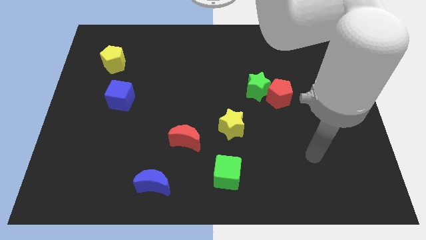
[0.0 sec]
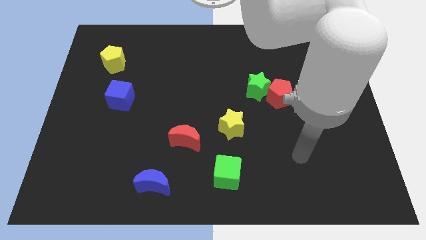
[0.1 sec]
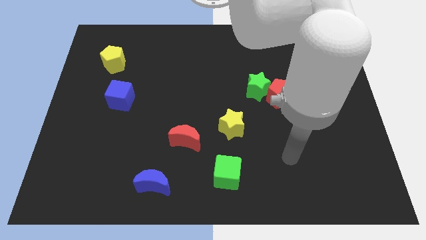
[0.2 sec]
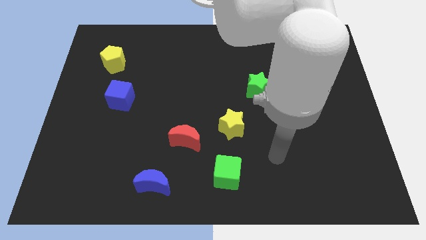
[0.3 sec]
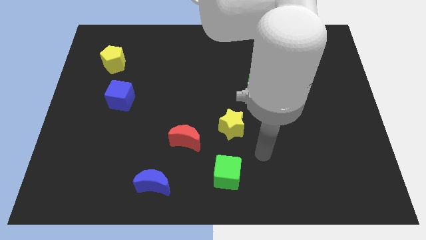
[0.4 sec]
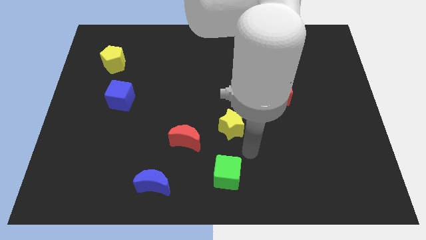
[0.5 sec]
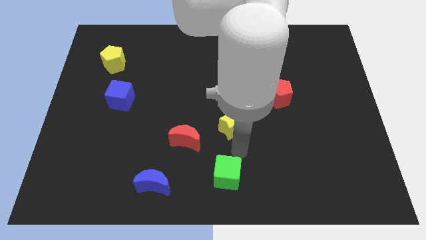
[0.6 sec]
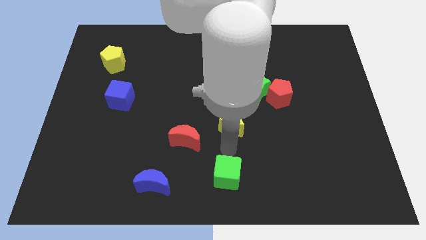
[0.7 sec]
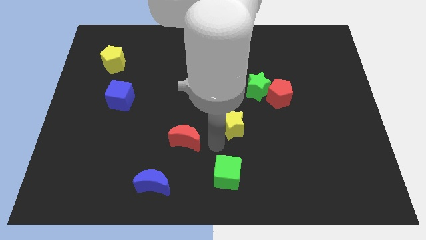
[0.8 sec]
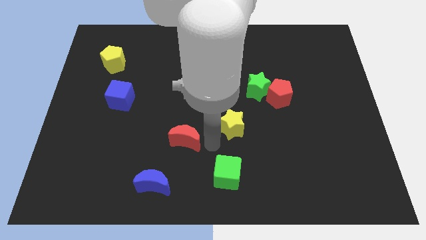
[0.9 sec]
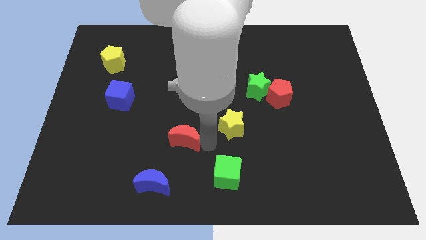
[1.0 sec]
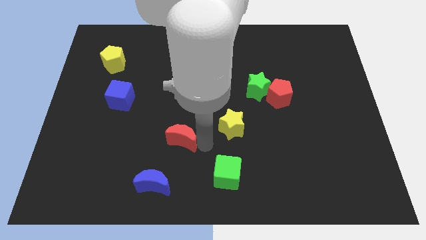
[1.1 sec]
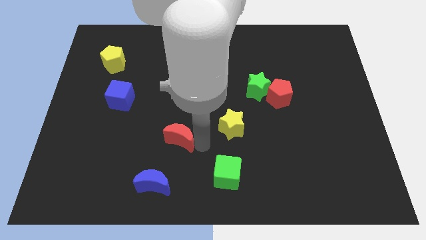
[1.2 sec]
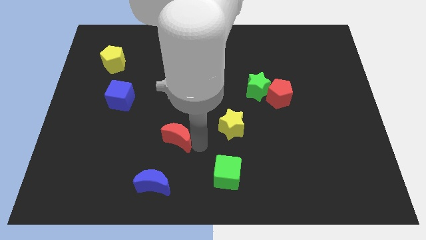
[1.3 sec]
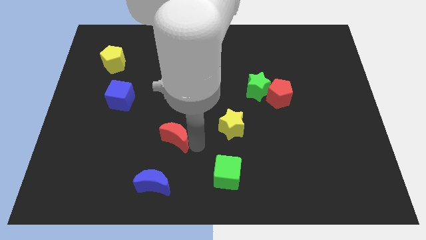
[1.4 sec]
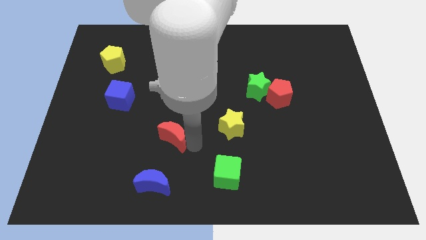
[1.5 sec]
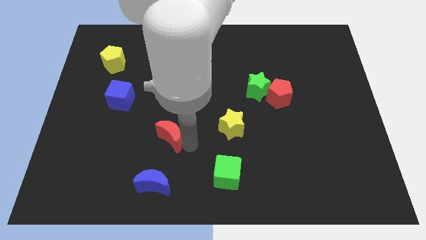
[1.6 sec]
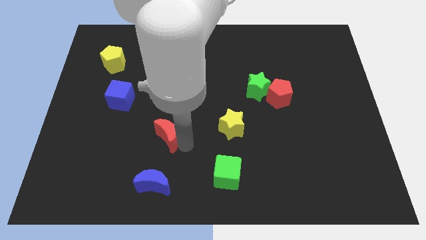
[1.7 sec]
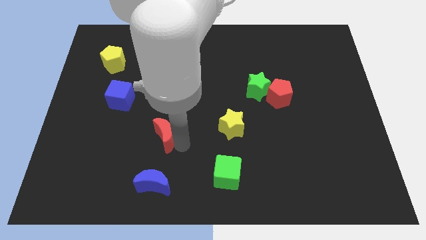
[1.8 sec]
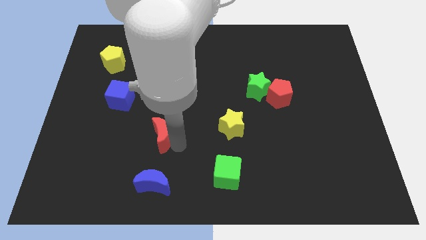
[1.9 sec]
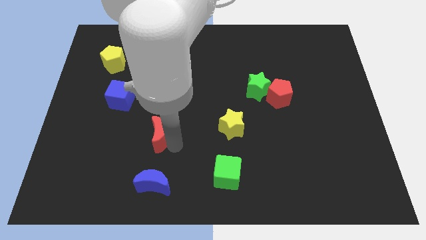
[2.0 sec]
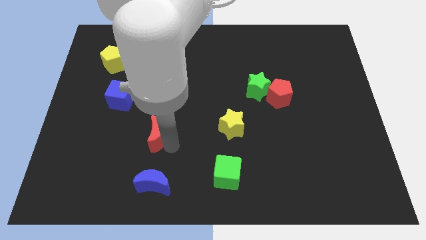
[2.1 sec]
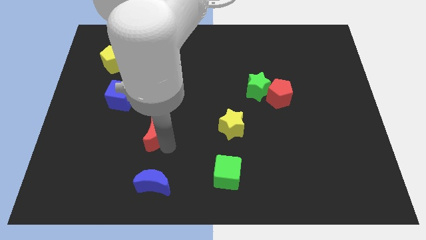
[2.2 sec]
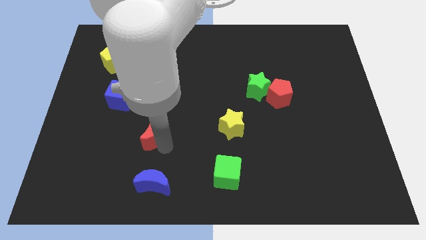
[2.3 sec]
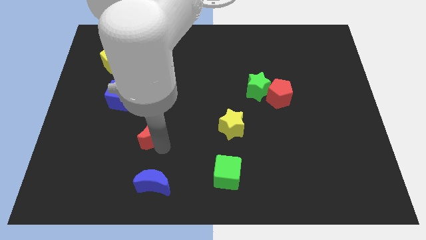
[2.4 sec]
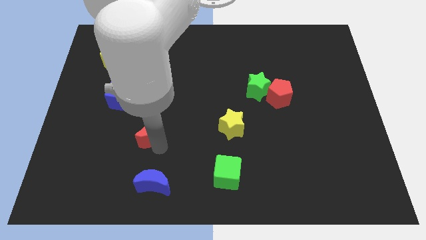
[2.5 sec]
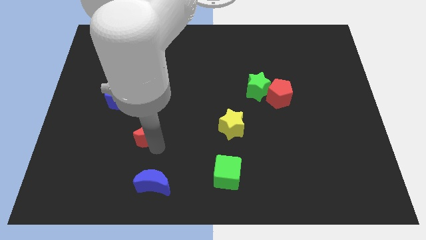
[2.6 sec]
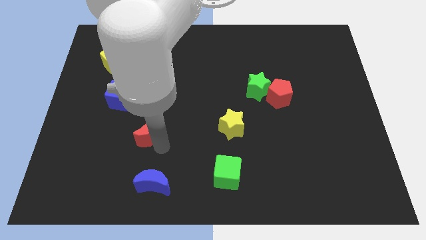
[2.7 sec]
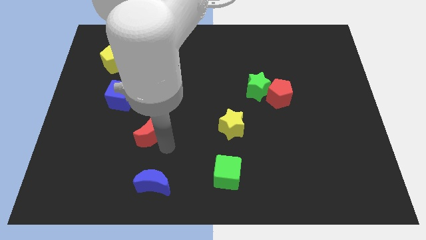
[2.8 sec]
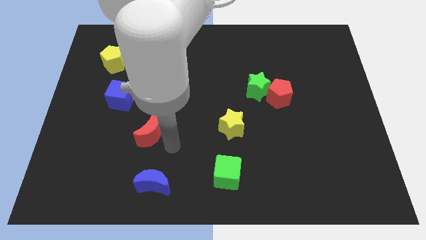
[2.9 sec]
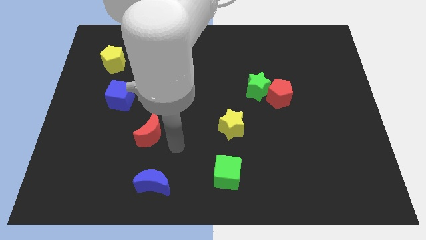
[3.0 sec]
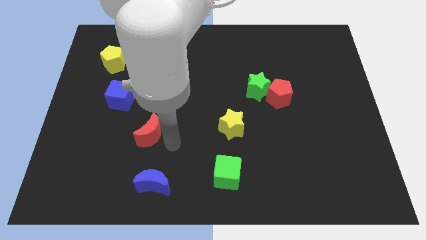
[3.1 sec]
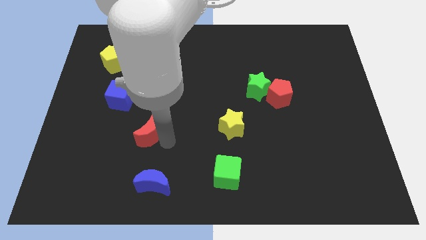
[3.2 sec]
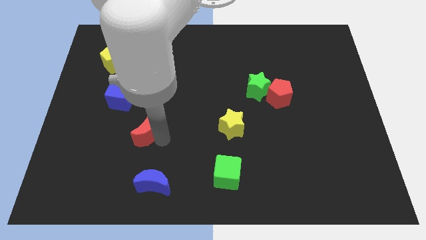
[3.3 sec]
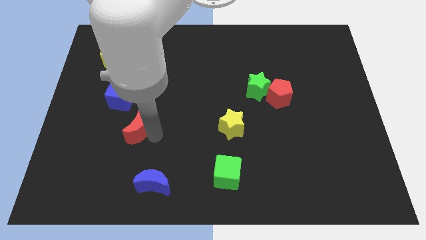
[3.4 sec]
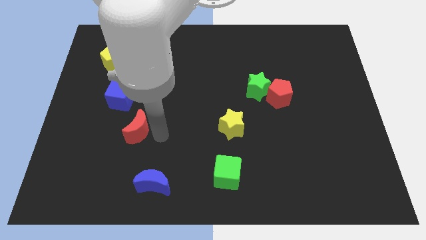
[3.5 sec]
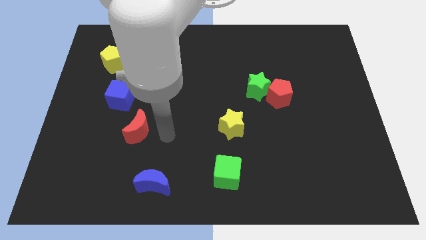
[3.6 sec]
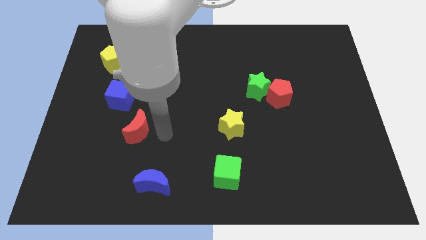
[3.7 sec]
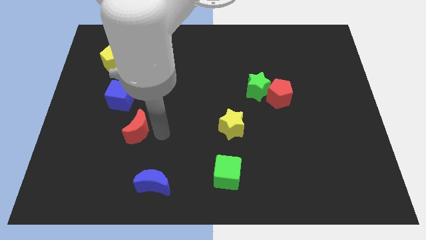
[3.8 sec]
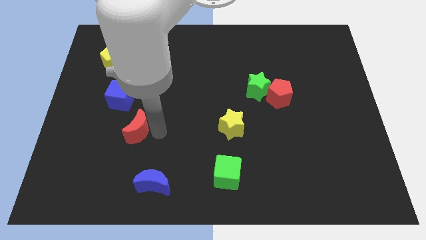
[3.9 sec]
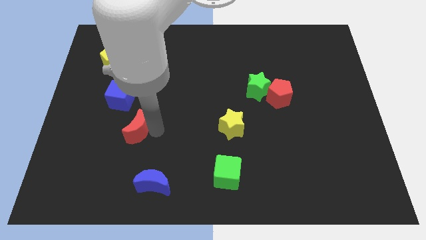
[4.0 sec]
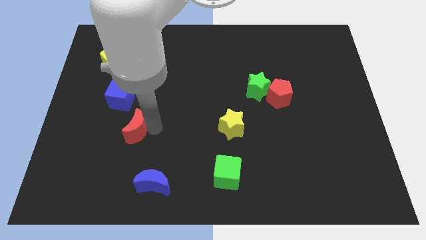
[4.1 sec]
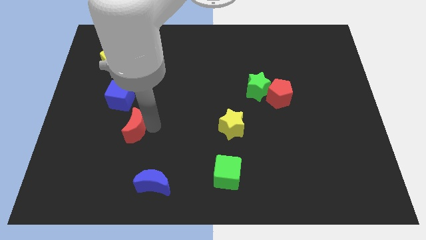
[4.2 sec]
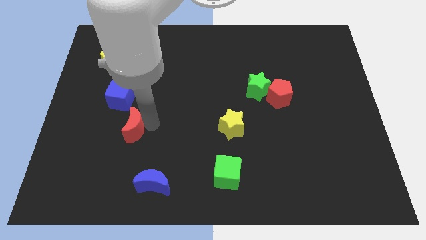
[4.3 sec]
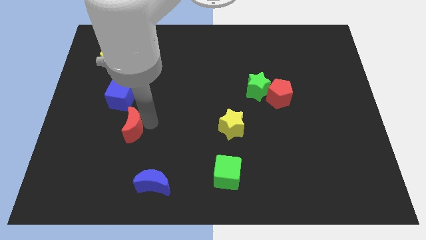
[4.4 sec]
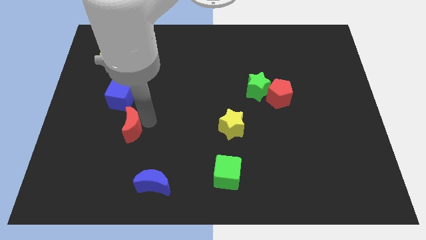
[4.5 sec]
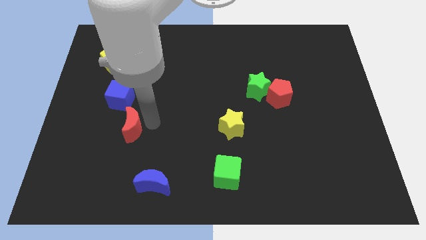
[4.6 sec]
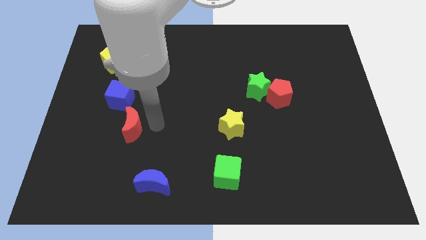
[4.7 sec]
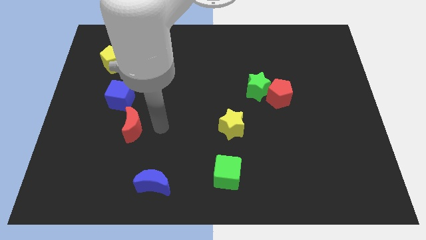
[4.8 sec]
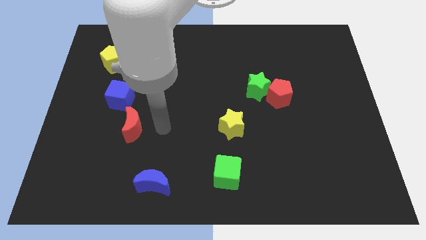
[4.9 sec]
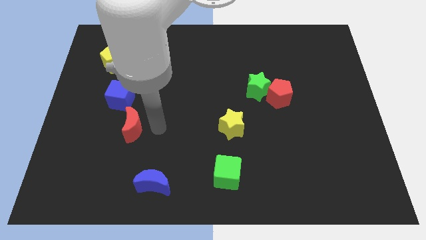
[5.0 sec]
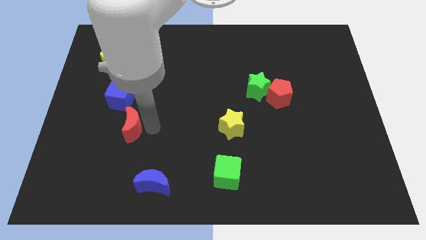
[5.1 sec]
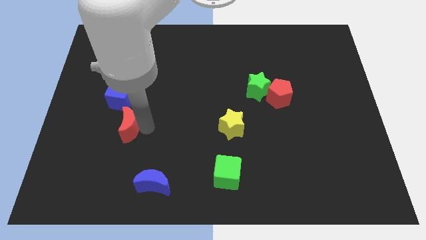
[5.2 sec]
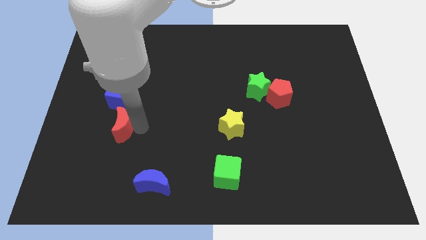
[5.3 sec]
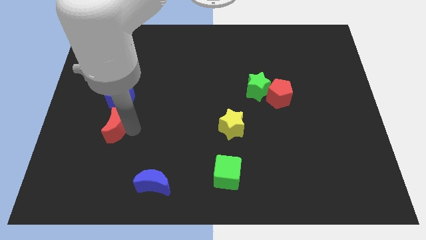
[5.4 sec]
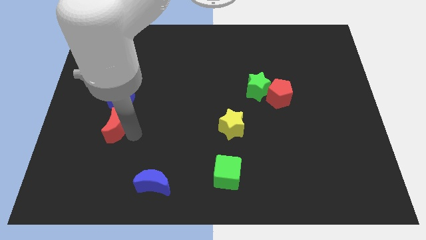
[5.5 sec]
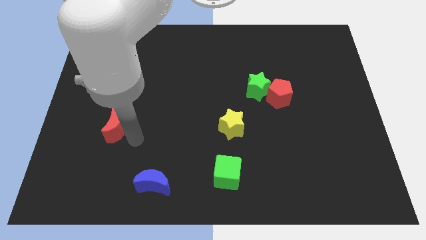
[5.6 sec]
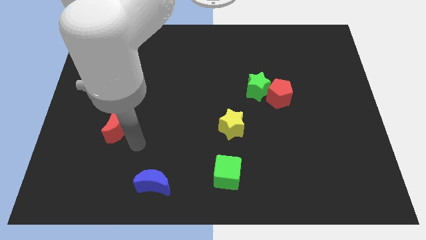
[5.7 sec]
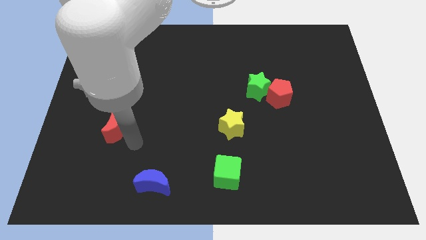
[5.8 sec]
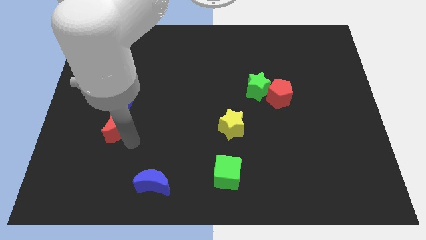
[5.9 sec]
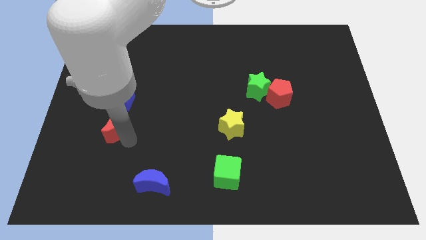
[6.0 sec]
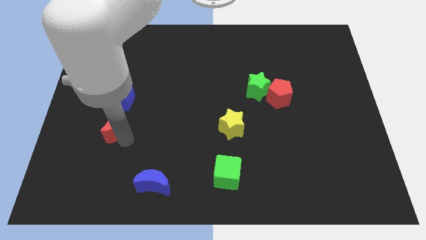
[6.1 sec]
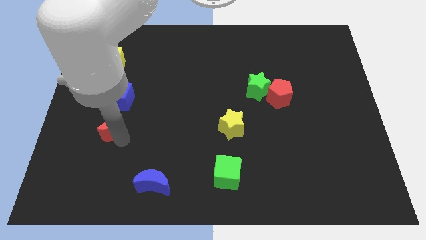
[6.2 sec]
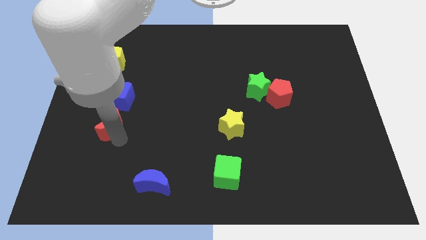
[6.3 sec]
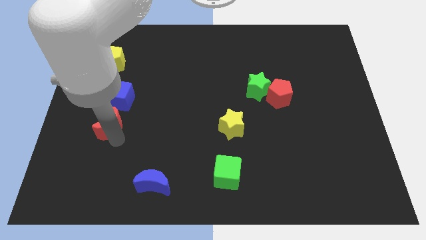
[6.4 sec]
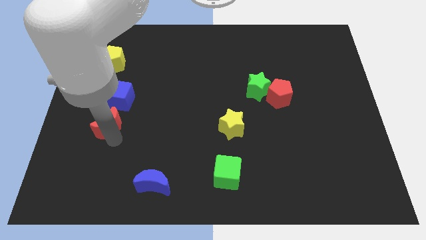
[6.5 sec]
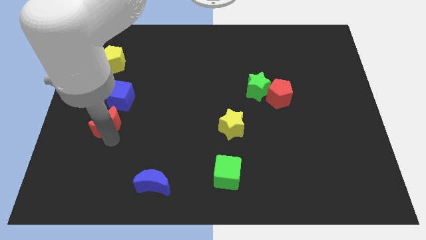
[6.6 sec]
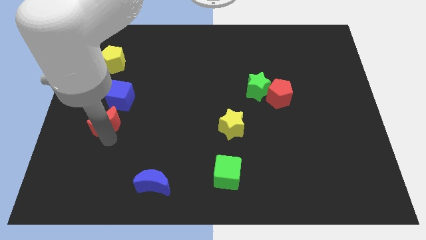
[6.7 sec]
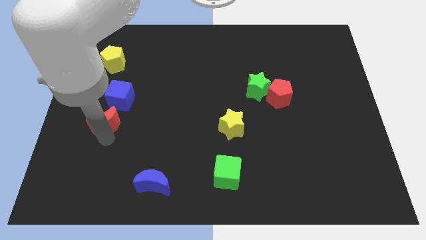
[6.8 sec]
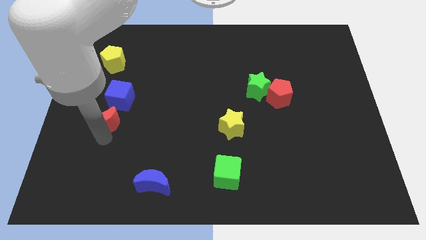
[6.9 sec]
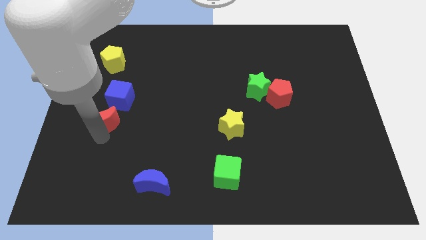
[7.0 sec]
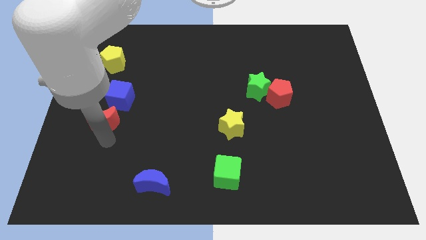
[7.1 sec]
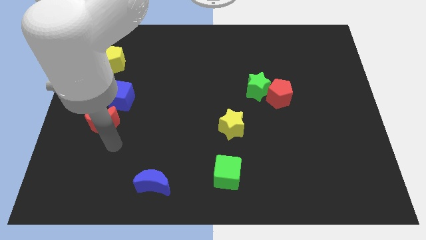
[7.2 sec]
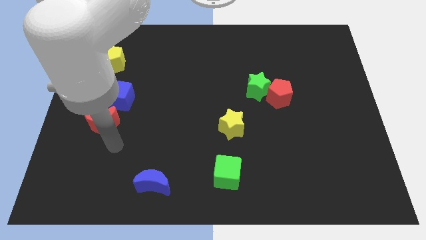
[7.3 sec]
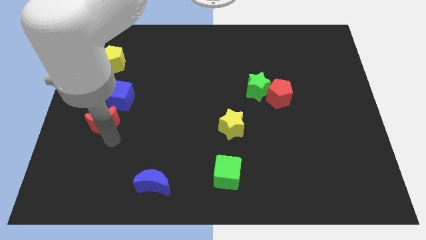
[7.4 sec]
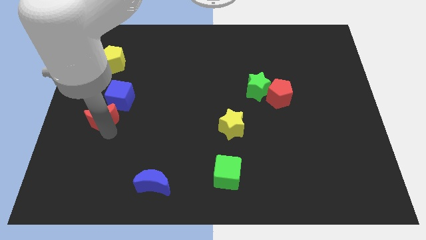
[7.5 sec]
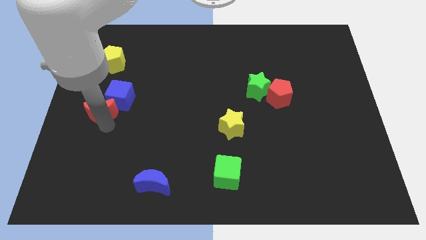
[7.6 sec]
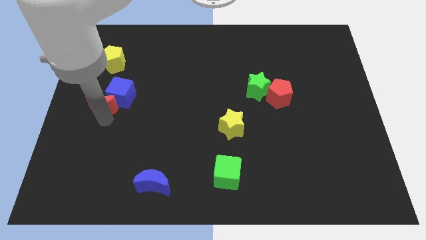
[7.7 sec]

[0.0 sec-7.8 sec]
slide the red moon to the bottom side of the yellow pentagon

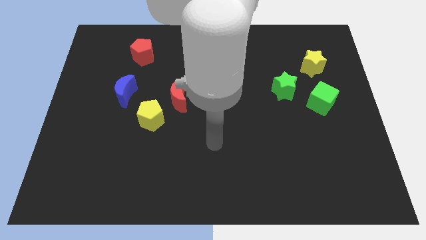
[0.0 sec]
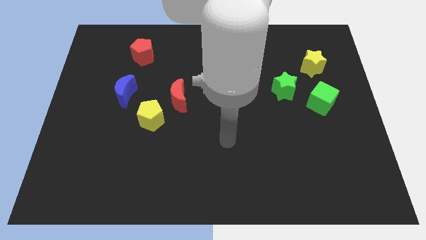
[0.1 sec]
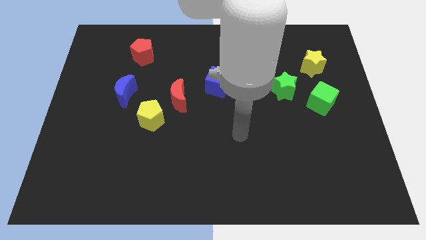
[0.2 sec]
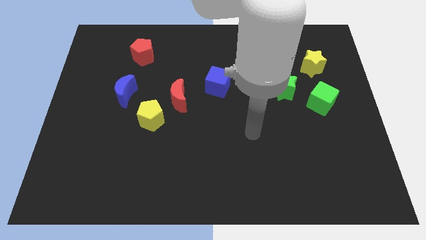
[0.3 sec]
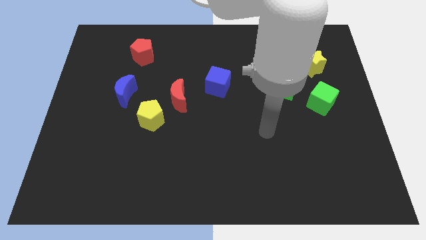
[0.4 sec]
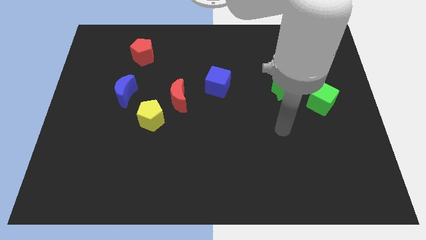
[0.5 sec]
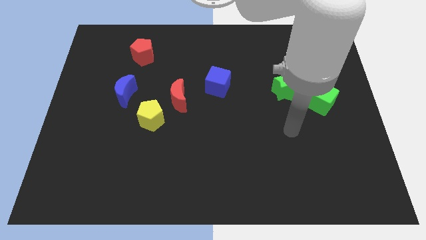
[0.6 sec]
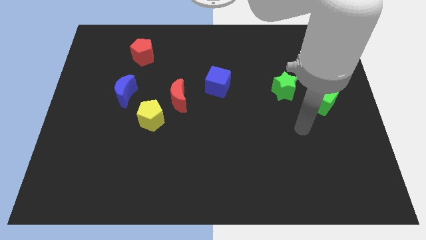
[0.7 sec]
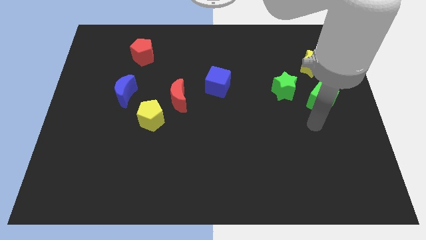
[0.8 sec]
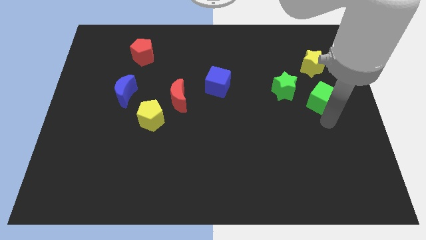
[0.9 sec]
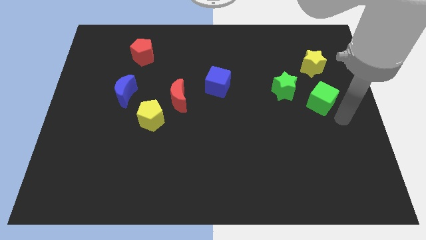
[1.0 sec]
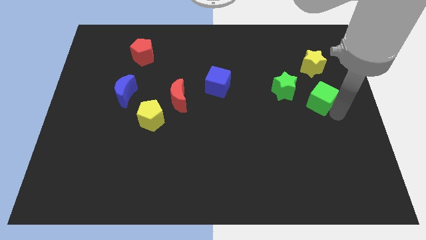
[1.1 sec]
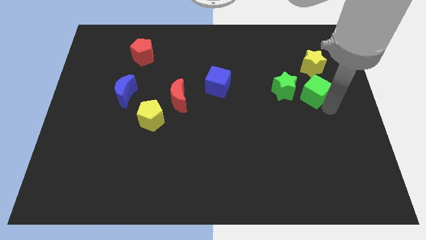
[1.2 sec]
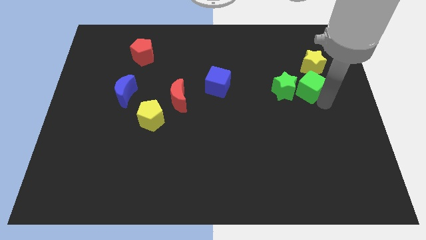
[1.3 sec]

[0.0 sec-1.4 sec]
put the green cube diagonally down and to the left of the yellow star
